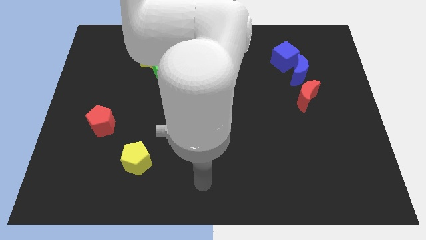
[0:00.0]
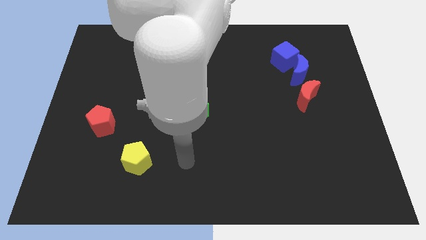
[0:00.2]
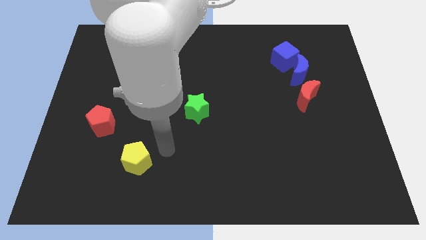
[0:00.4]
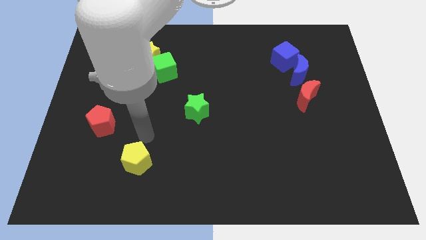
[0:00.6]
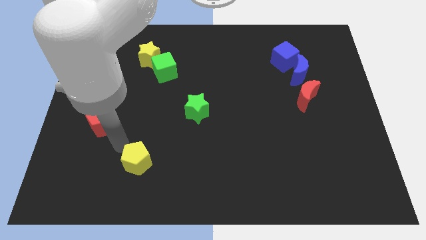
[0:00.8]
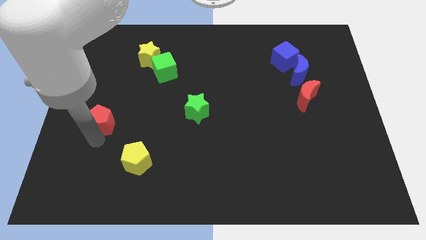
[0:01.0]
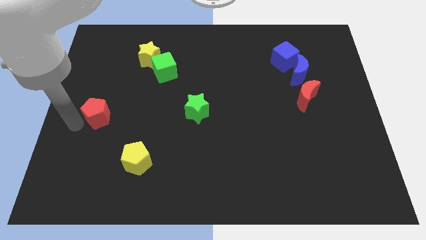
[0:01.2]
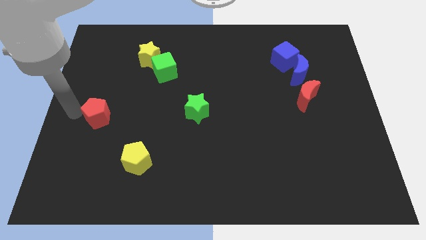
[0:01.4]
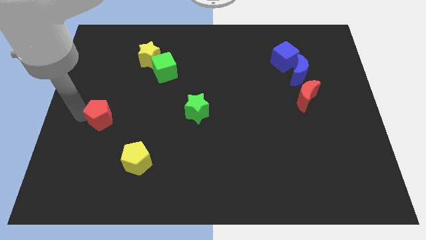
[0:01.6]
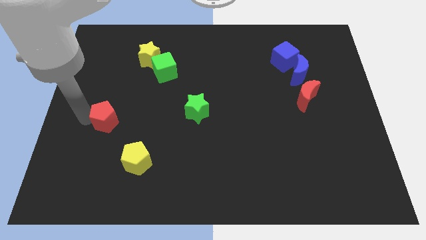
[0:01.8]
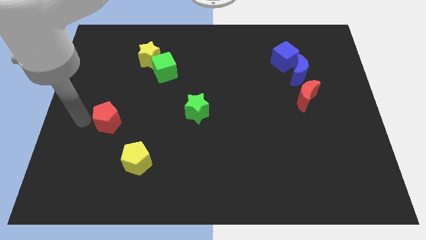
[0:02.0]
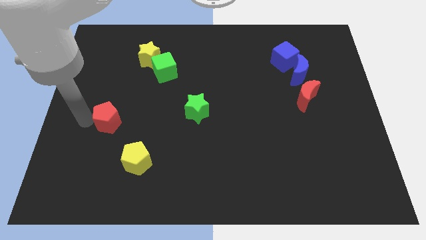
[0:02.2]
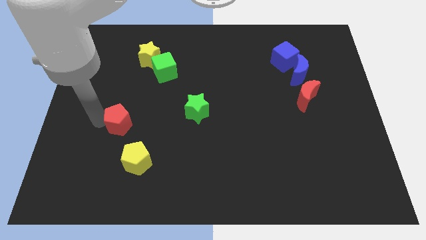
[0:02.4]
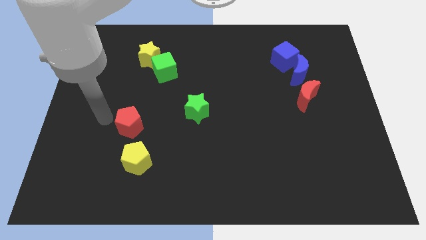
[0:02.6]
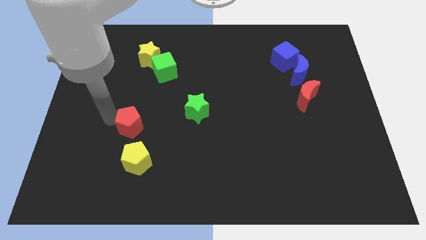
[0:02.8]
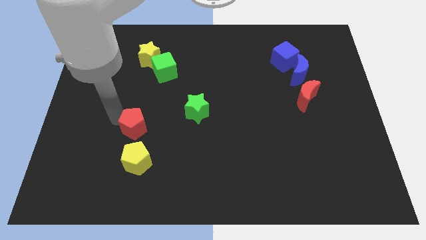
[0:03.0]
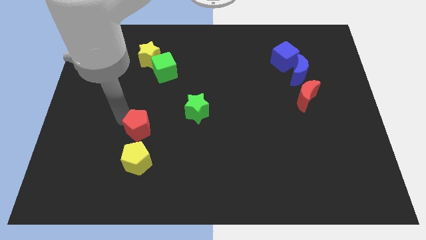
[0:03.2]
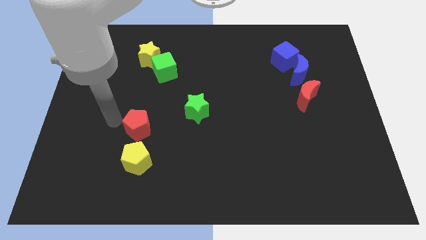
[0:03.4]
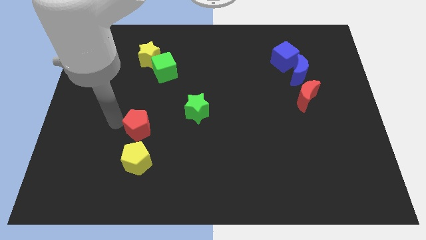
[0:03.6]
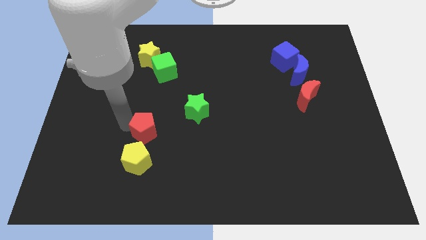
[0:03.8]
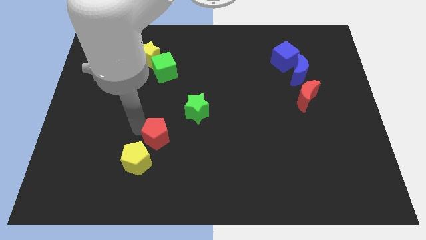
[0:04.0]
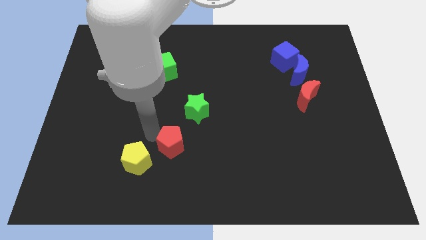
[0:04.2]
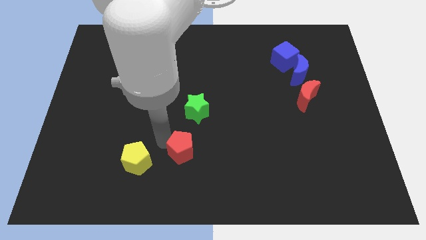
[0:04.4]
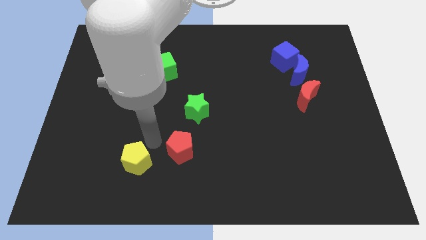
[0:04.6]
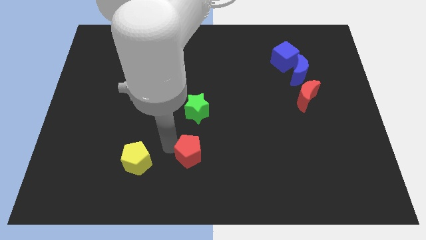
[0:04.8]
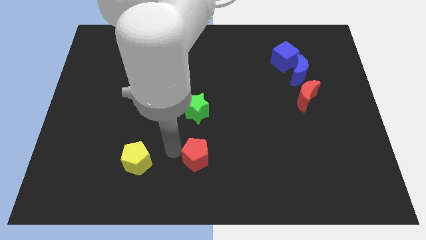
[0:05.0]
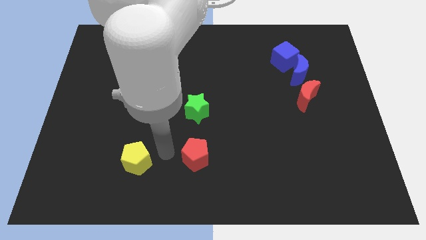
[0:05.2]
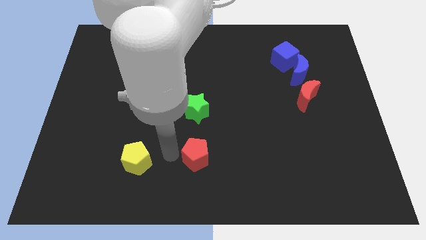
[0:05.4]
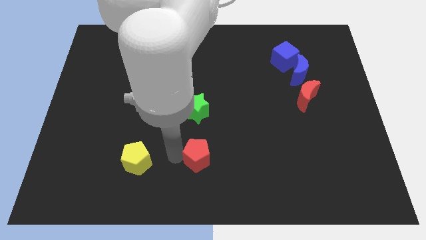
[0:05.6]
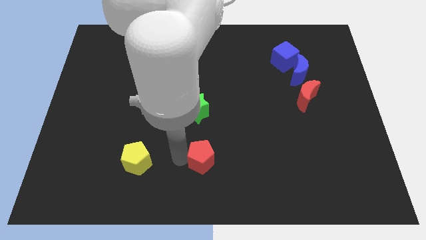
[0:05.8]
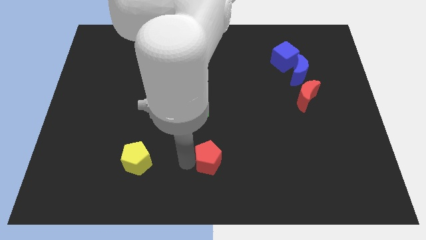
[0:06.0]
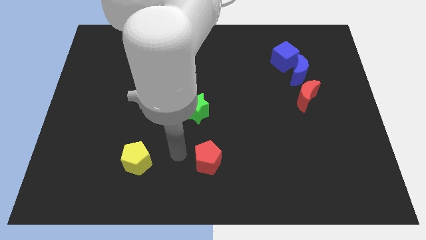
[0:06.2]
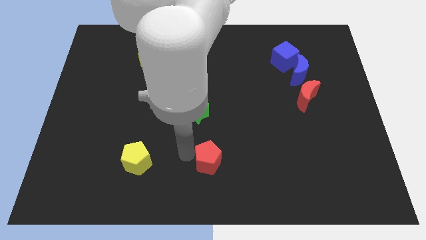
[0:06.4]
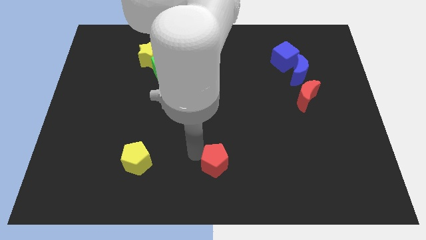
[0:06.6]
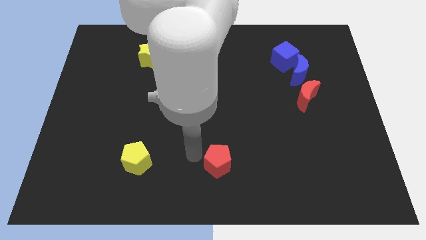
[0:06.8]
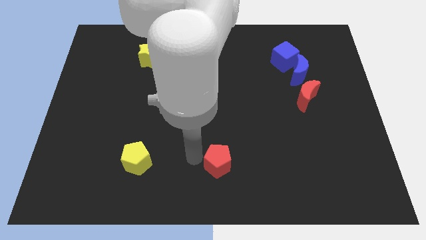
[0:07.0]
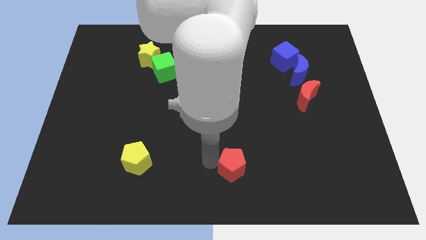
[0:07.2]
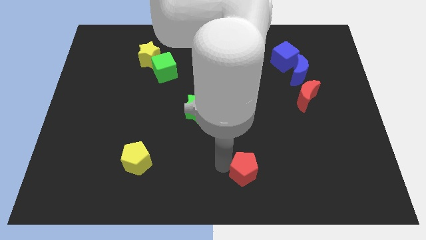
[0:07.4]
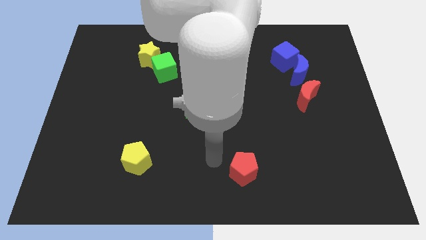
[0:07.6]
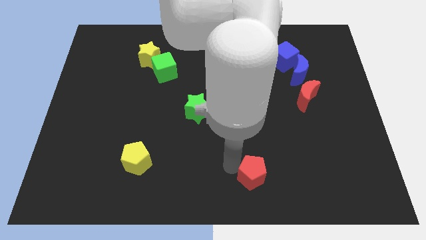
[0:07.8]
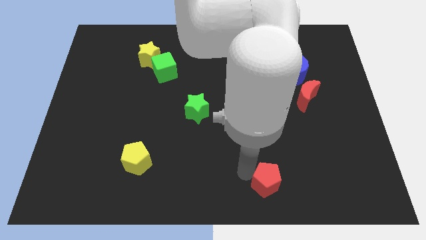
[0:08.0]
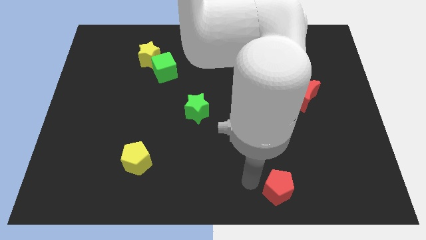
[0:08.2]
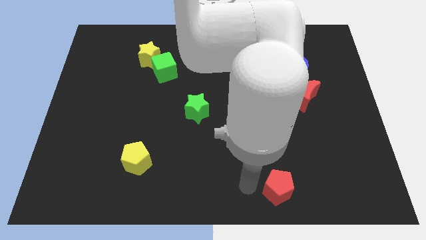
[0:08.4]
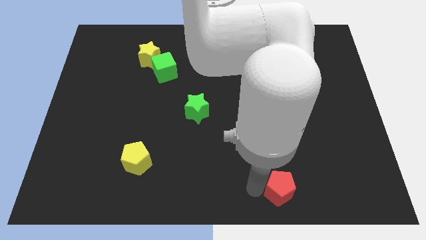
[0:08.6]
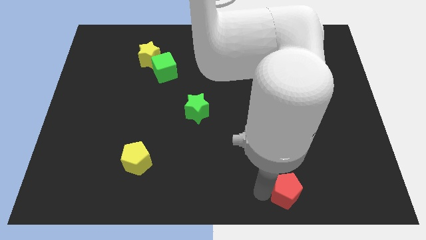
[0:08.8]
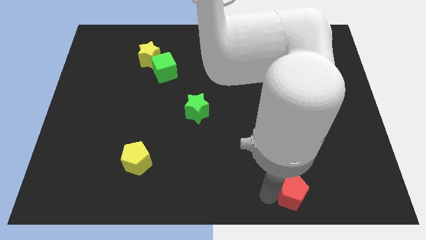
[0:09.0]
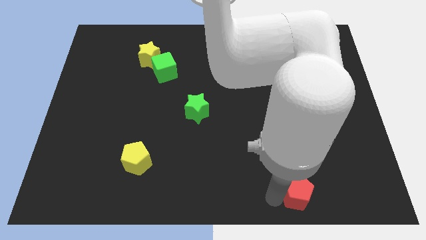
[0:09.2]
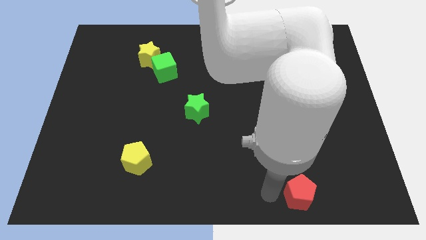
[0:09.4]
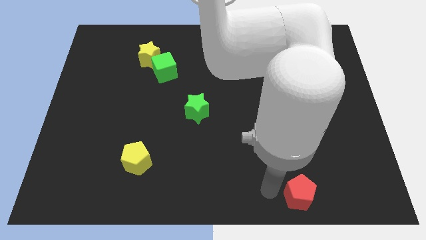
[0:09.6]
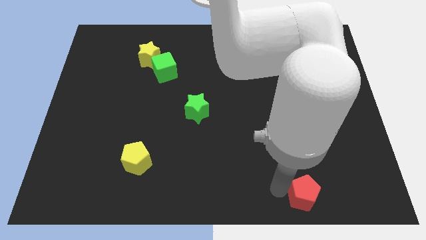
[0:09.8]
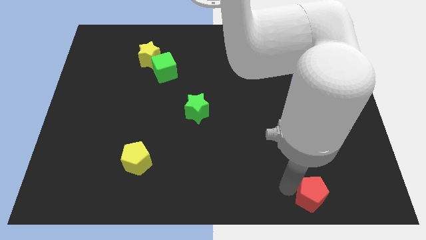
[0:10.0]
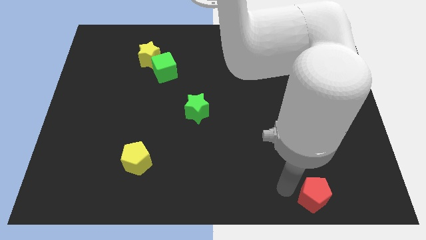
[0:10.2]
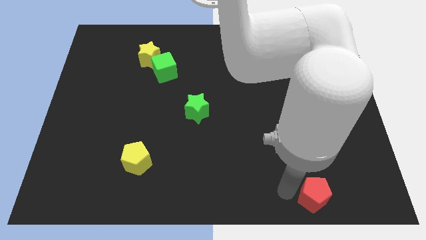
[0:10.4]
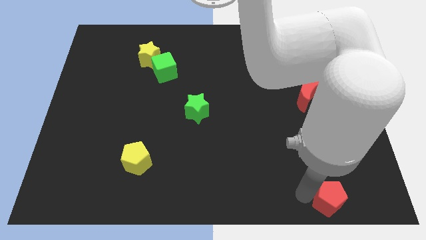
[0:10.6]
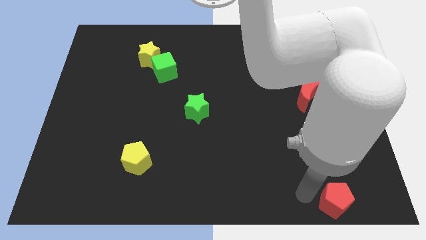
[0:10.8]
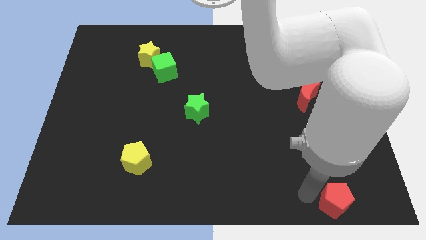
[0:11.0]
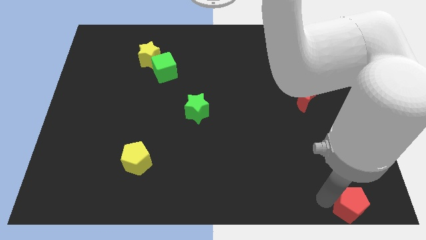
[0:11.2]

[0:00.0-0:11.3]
push the red pentagon to the bottom right corner
